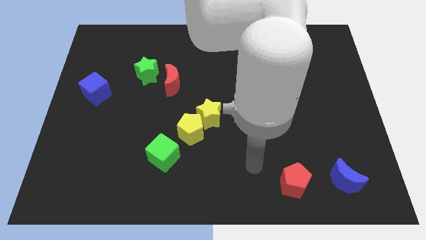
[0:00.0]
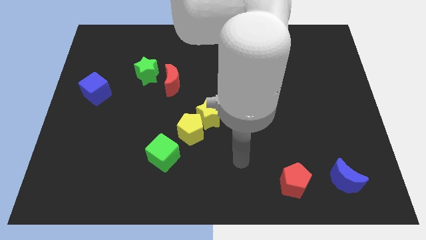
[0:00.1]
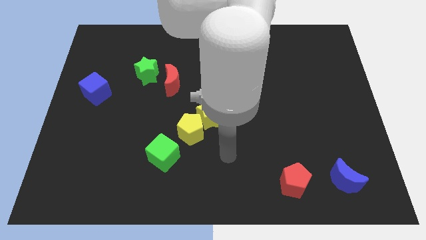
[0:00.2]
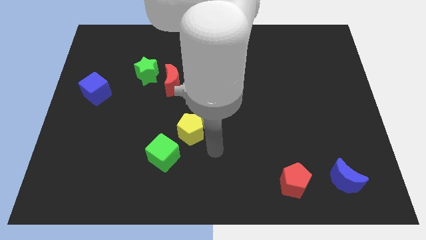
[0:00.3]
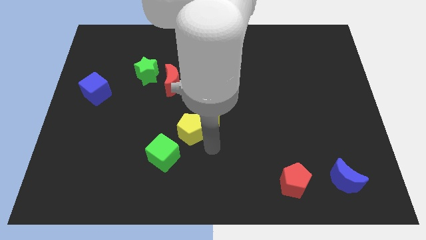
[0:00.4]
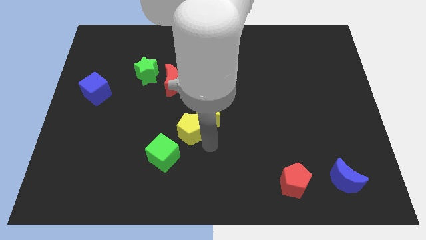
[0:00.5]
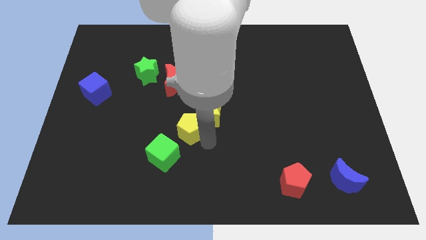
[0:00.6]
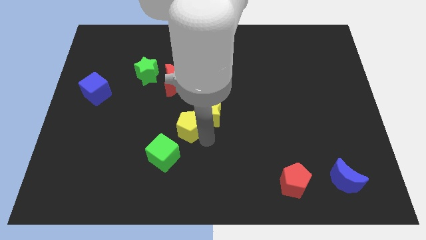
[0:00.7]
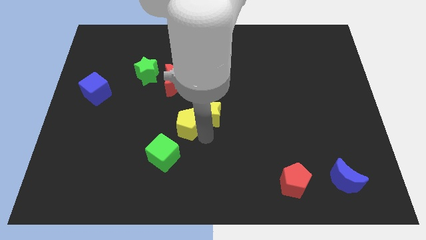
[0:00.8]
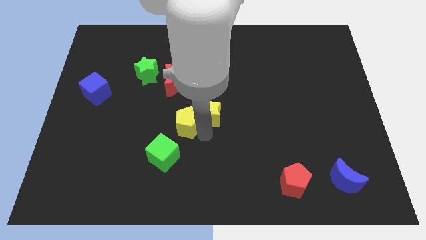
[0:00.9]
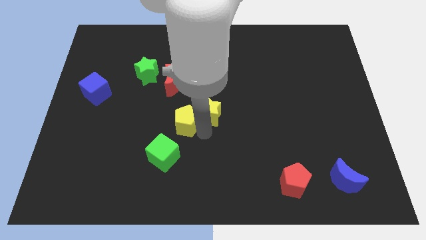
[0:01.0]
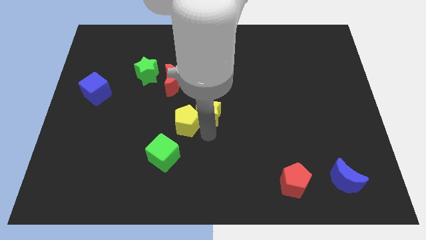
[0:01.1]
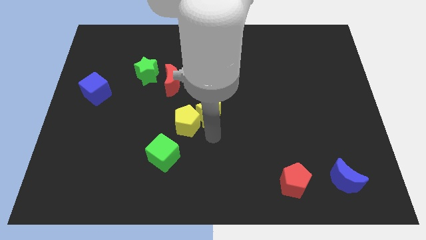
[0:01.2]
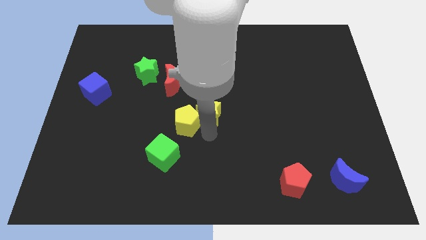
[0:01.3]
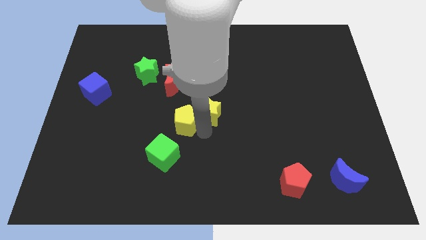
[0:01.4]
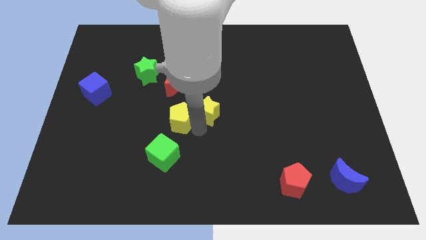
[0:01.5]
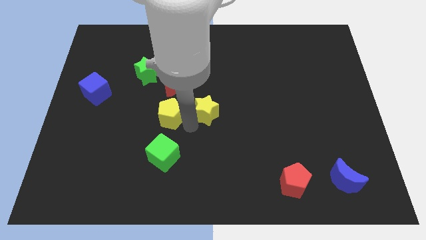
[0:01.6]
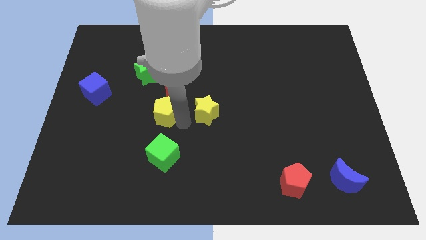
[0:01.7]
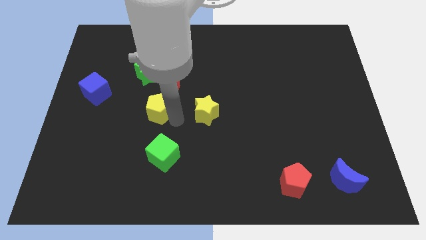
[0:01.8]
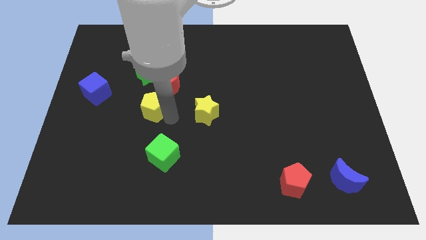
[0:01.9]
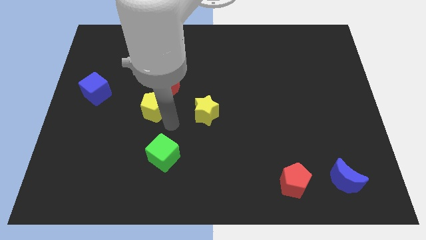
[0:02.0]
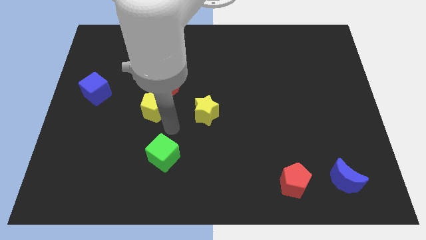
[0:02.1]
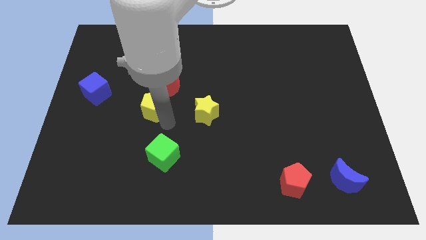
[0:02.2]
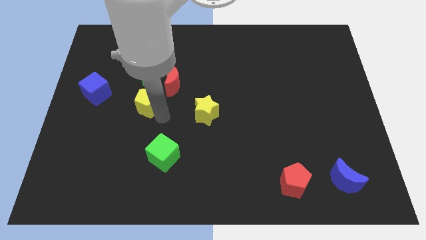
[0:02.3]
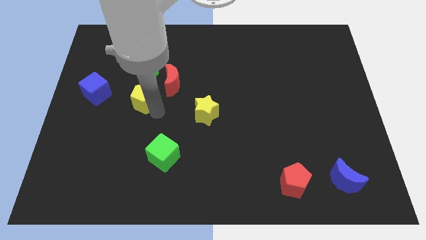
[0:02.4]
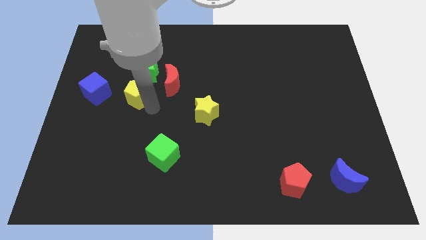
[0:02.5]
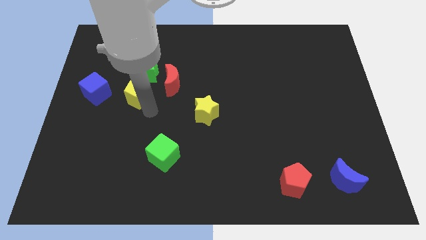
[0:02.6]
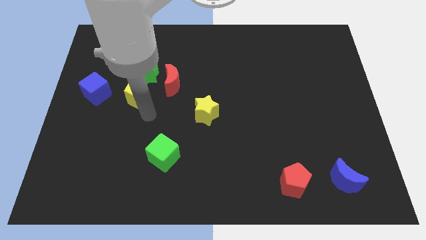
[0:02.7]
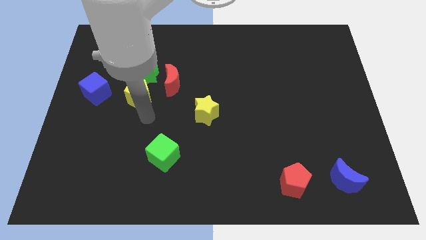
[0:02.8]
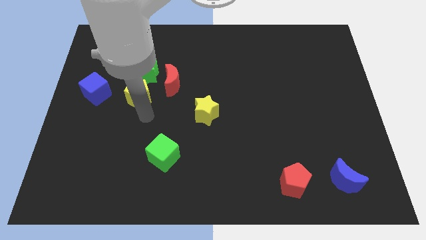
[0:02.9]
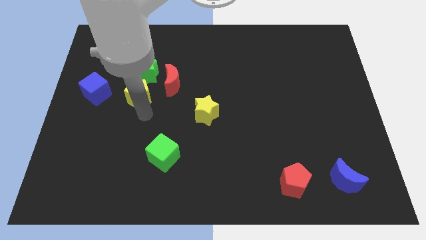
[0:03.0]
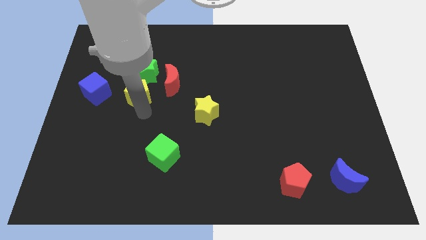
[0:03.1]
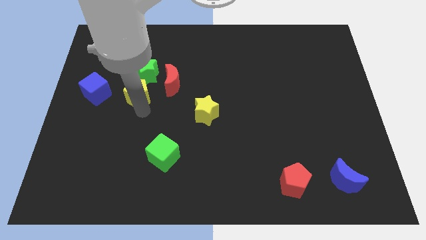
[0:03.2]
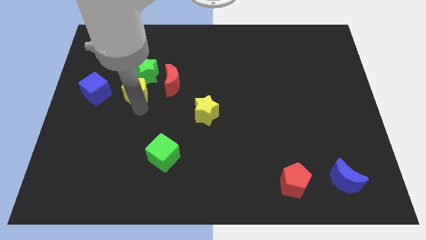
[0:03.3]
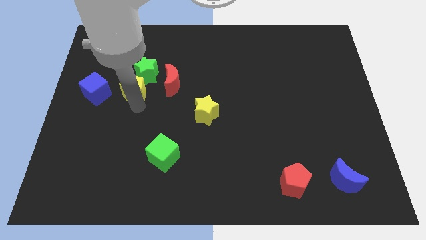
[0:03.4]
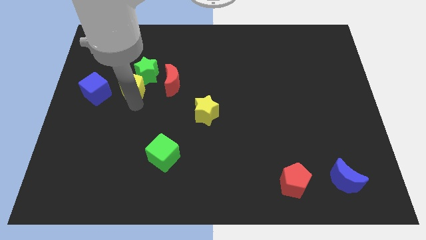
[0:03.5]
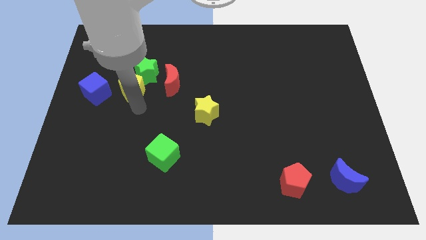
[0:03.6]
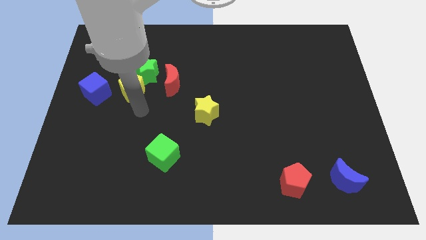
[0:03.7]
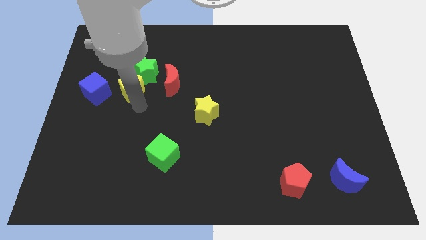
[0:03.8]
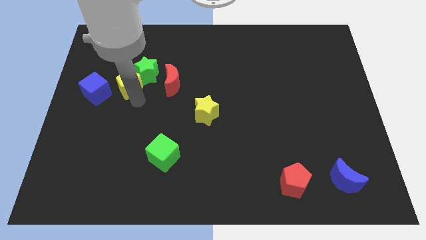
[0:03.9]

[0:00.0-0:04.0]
move the yellow pentagon diagonally up and to the left

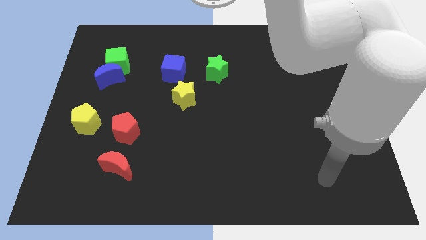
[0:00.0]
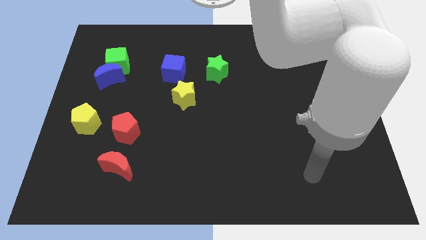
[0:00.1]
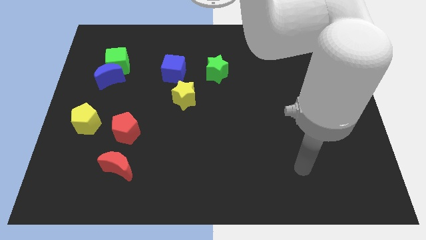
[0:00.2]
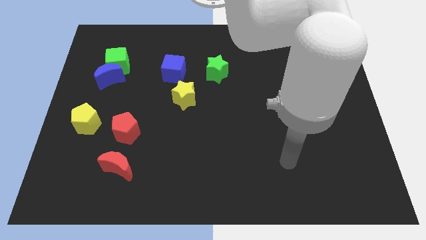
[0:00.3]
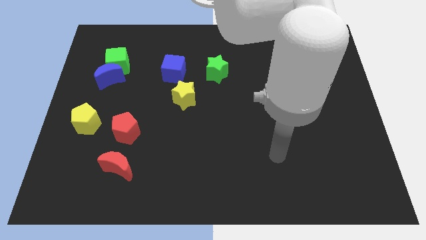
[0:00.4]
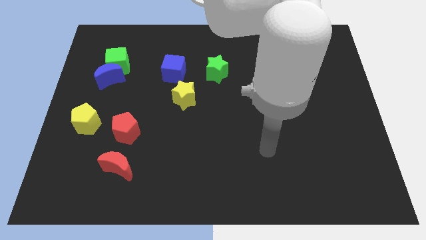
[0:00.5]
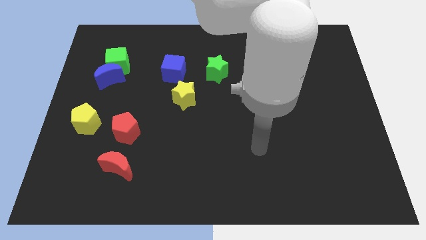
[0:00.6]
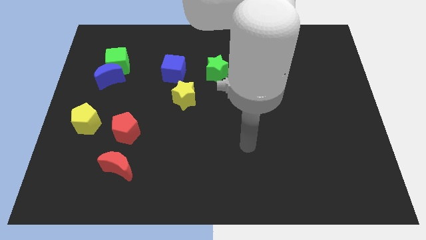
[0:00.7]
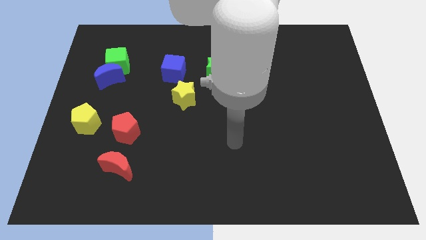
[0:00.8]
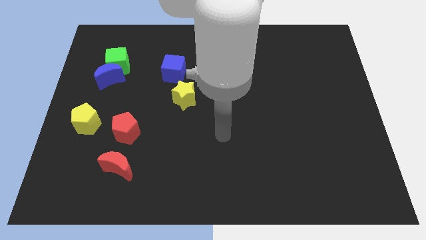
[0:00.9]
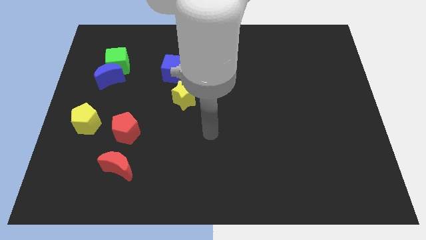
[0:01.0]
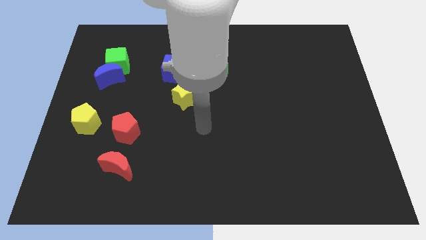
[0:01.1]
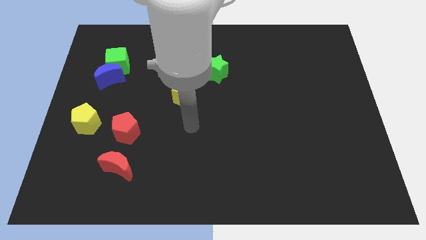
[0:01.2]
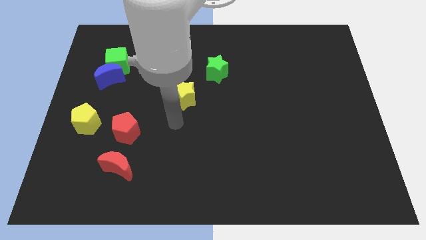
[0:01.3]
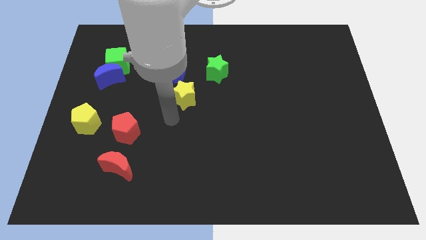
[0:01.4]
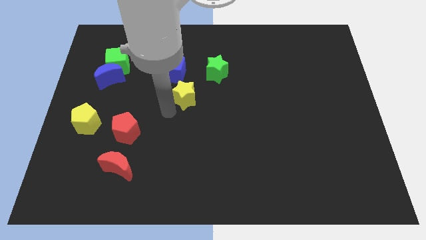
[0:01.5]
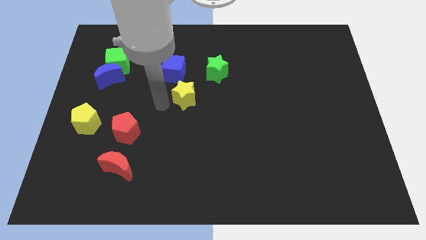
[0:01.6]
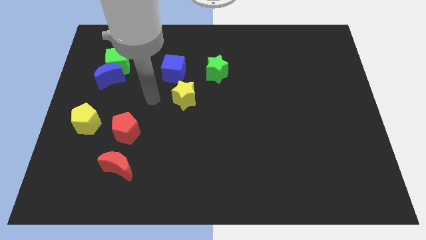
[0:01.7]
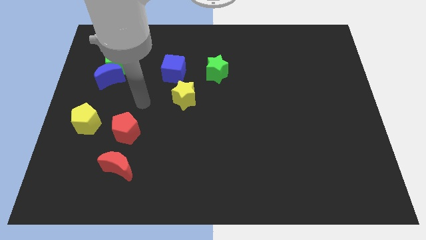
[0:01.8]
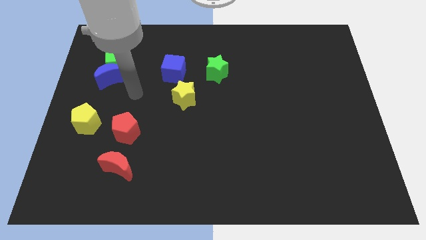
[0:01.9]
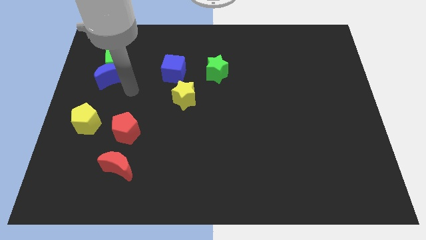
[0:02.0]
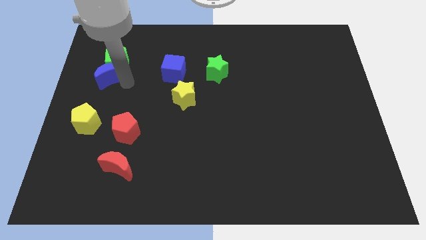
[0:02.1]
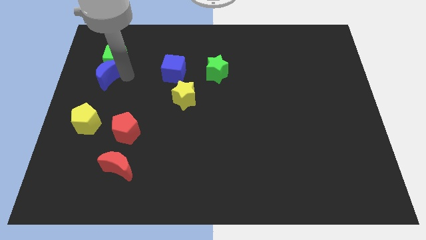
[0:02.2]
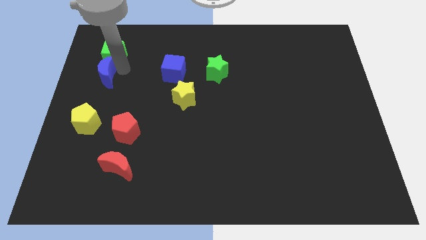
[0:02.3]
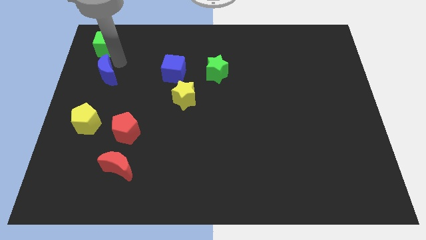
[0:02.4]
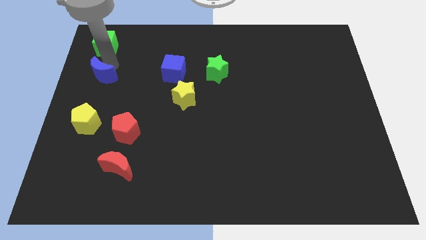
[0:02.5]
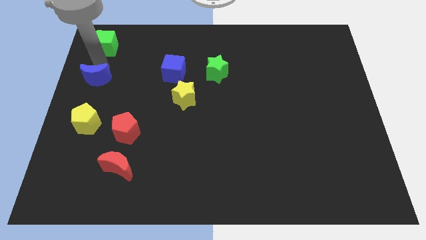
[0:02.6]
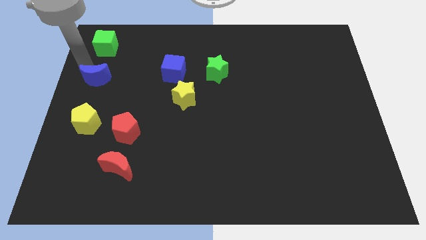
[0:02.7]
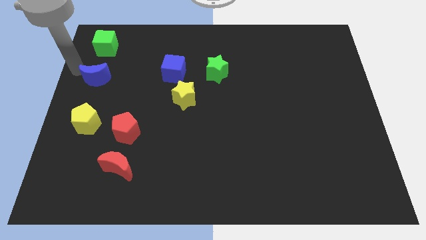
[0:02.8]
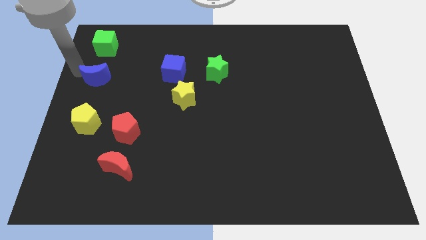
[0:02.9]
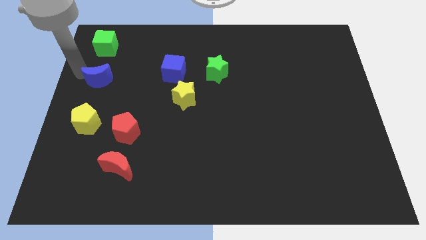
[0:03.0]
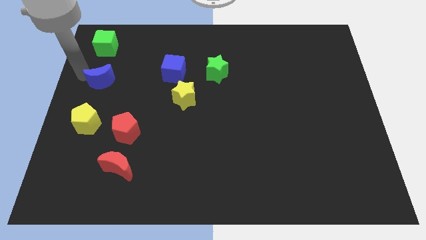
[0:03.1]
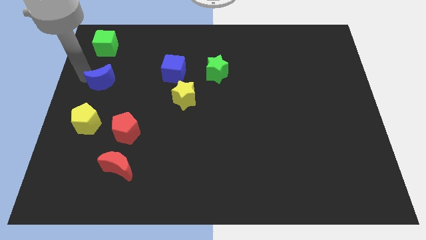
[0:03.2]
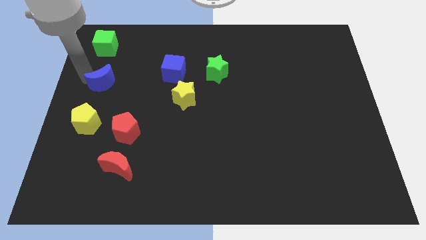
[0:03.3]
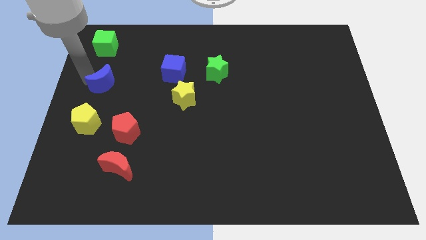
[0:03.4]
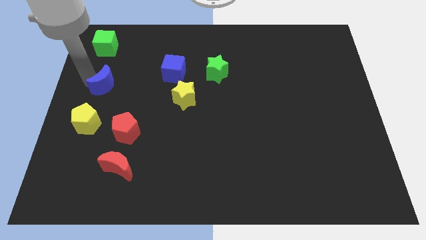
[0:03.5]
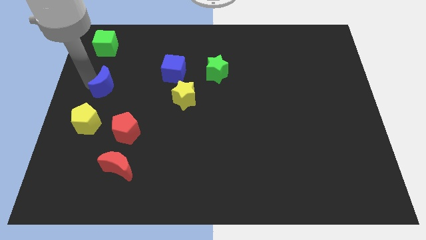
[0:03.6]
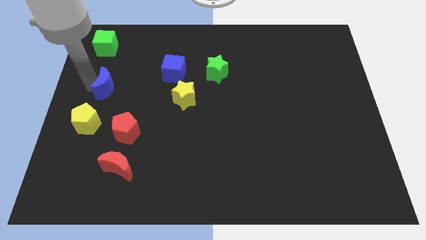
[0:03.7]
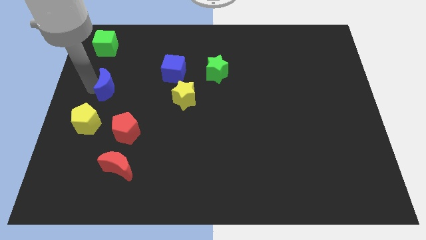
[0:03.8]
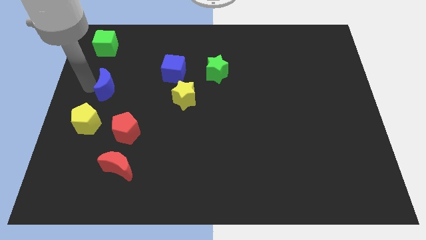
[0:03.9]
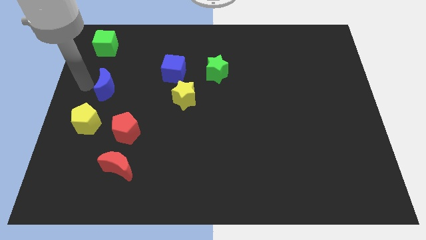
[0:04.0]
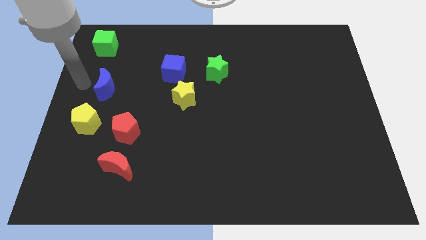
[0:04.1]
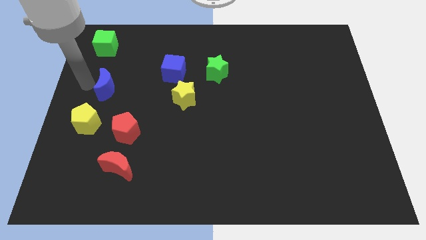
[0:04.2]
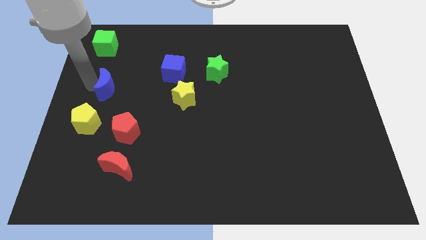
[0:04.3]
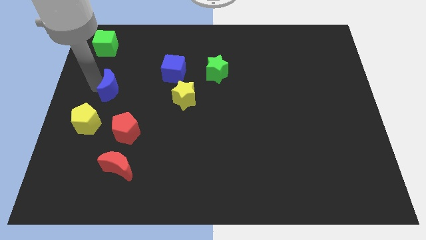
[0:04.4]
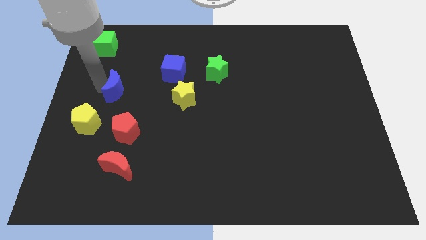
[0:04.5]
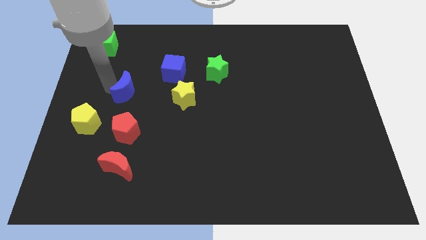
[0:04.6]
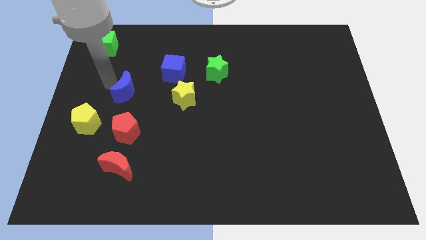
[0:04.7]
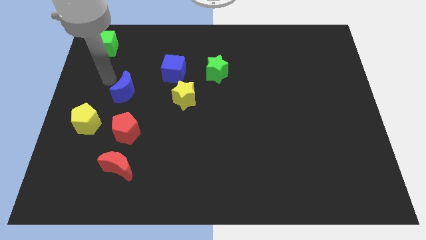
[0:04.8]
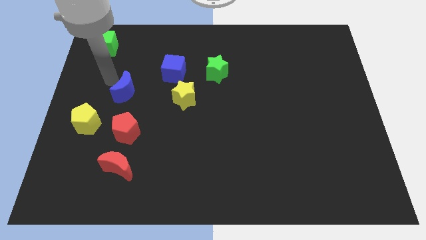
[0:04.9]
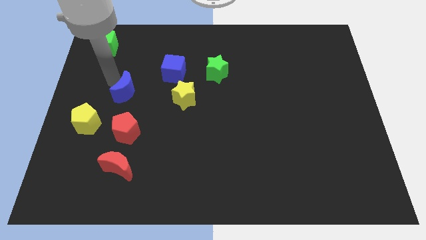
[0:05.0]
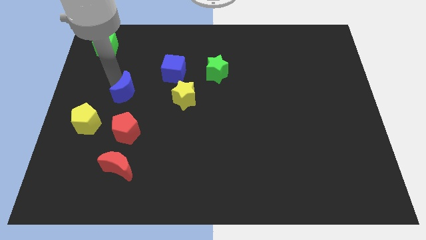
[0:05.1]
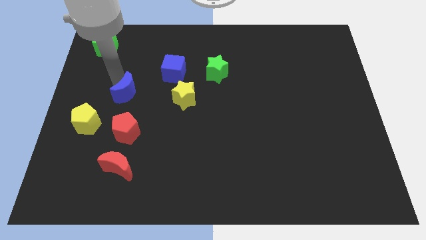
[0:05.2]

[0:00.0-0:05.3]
slightly move the blue moon diagonally down and right
